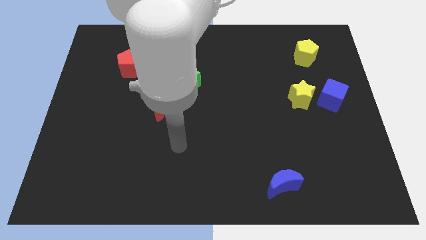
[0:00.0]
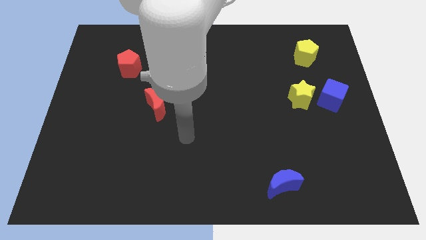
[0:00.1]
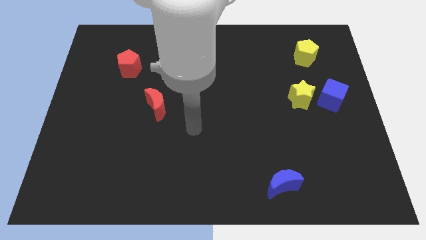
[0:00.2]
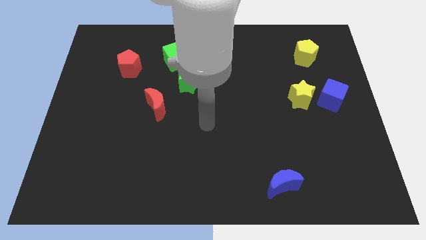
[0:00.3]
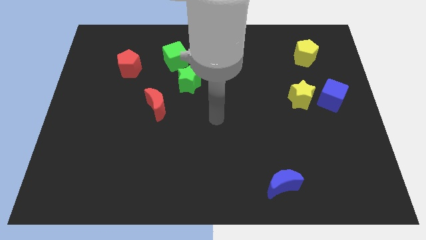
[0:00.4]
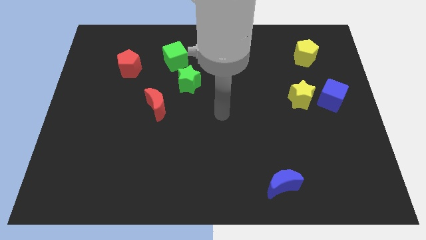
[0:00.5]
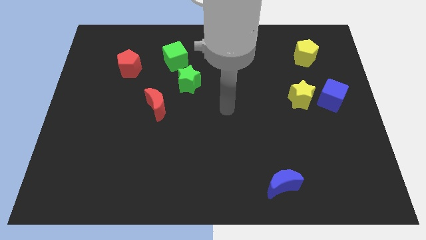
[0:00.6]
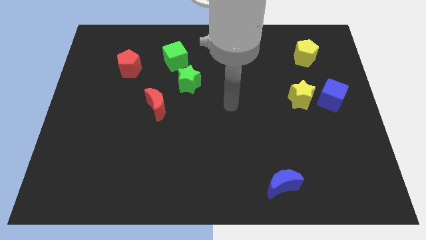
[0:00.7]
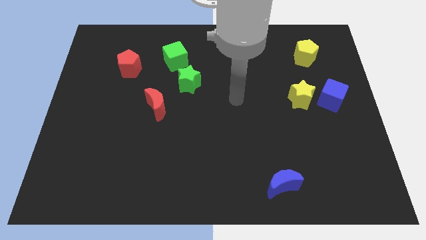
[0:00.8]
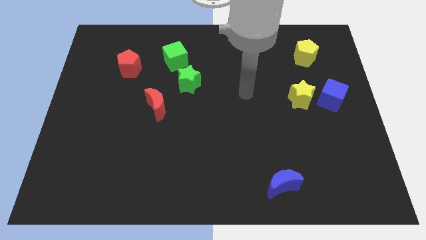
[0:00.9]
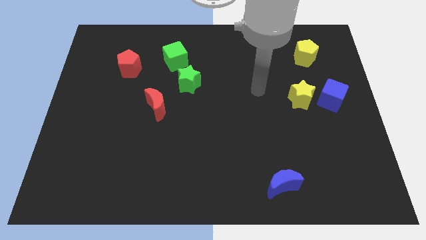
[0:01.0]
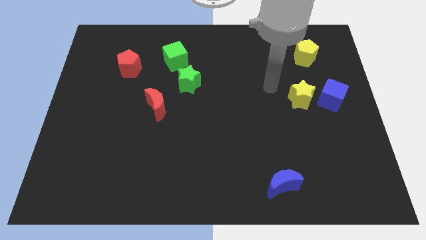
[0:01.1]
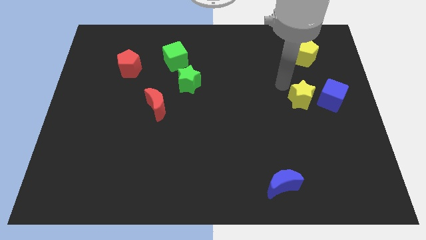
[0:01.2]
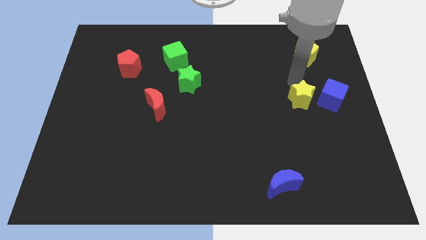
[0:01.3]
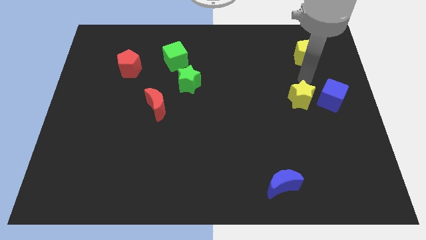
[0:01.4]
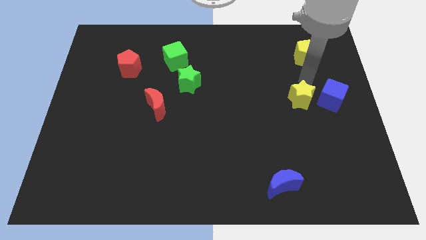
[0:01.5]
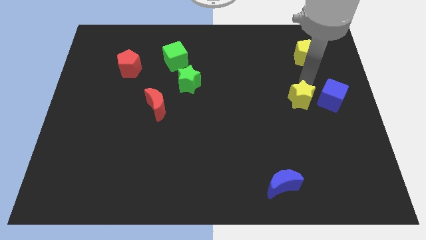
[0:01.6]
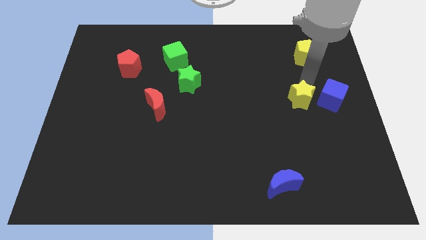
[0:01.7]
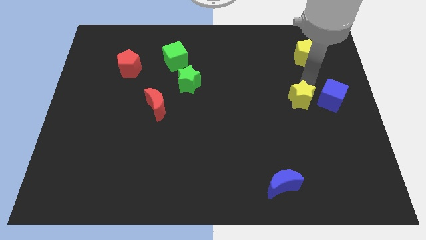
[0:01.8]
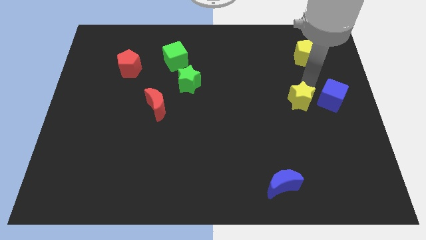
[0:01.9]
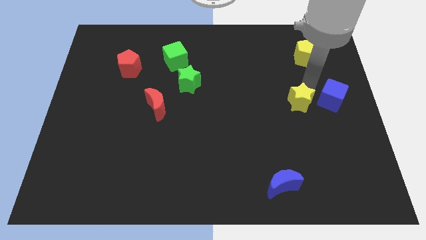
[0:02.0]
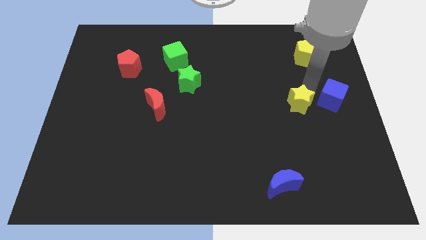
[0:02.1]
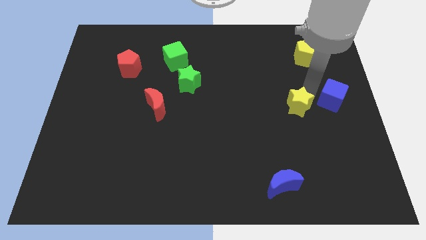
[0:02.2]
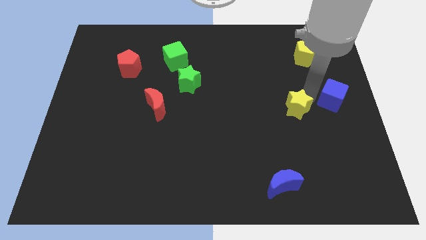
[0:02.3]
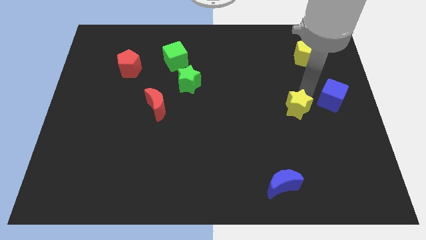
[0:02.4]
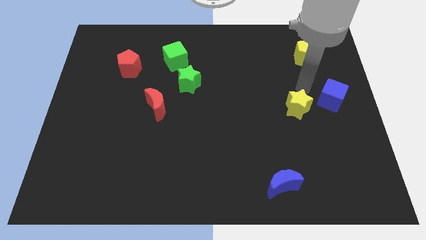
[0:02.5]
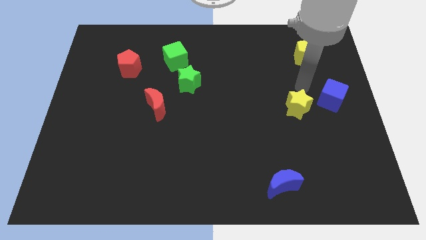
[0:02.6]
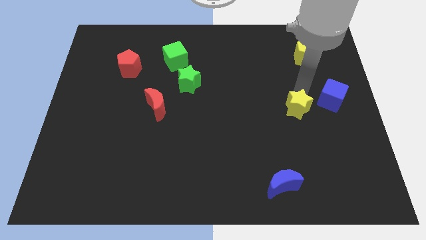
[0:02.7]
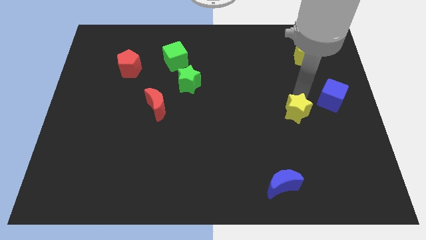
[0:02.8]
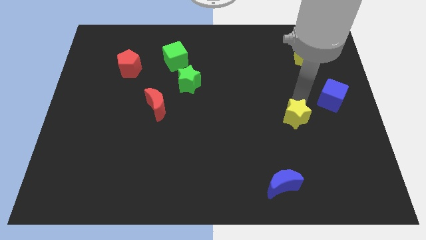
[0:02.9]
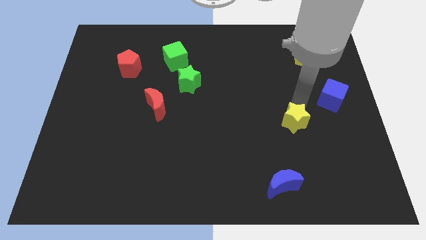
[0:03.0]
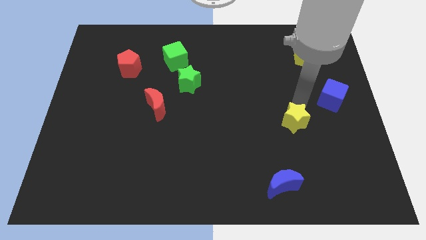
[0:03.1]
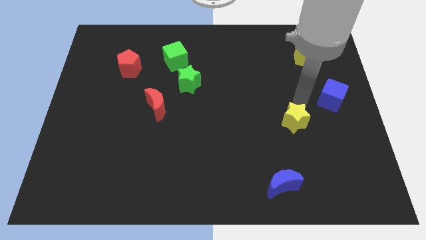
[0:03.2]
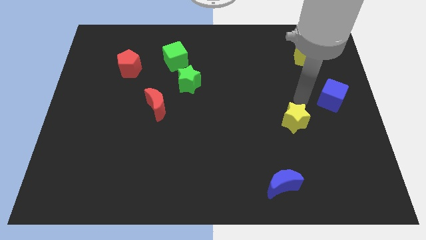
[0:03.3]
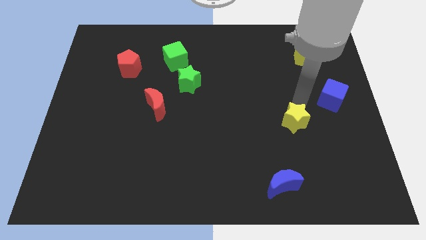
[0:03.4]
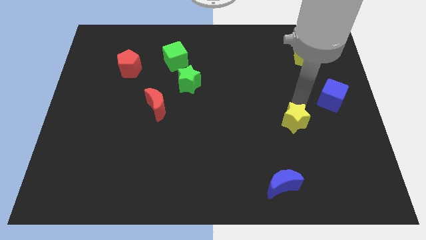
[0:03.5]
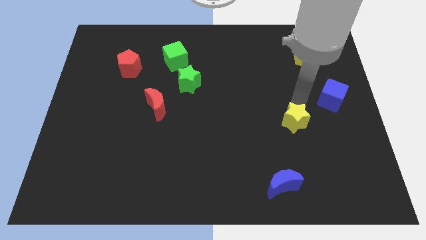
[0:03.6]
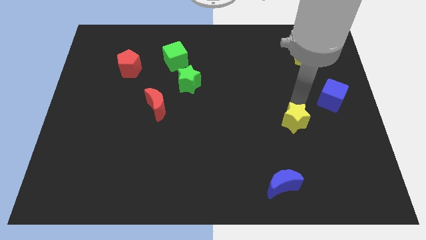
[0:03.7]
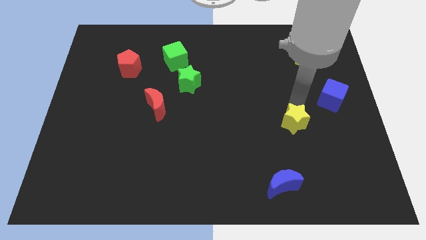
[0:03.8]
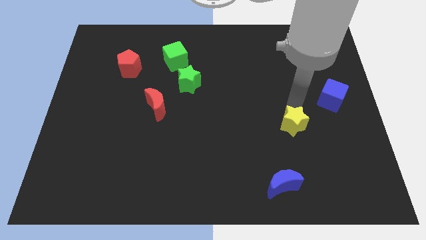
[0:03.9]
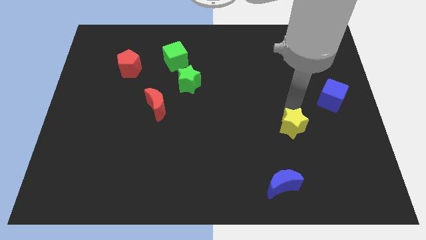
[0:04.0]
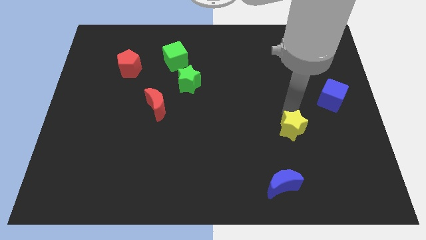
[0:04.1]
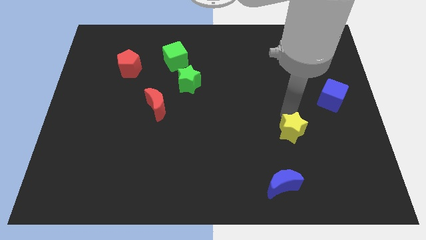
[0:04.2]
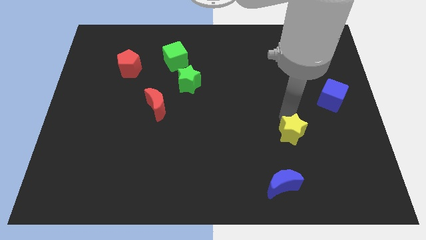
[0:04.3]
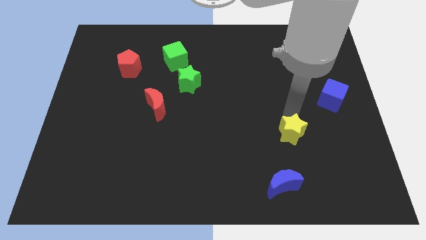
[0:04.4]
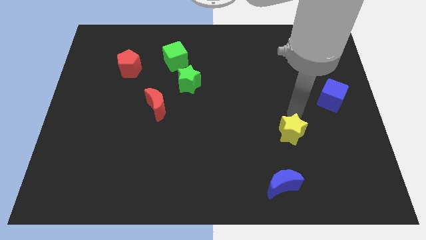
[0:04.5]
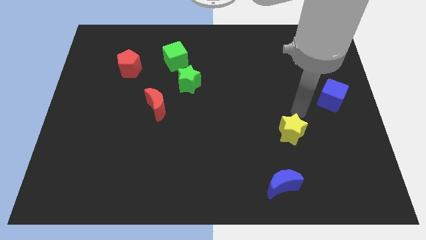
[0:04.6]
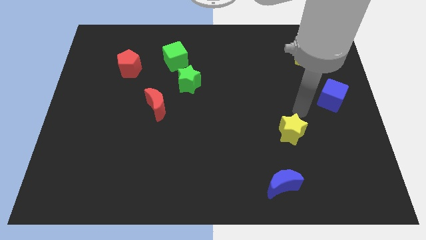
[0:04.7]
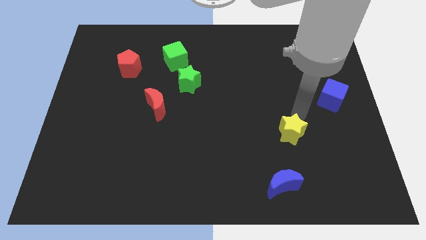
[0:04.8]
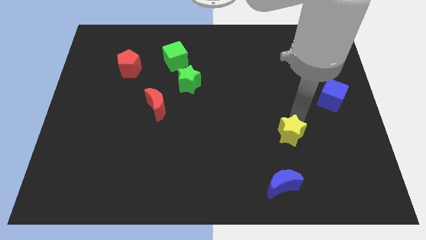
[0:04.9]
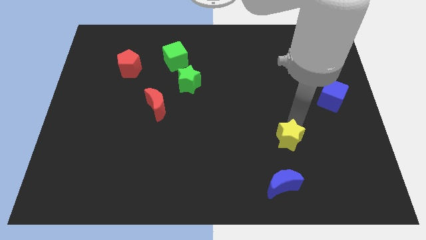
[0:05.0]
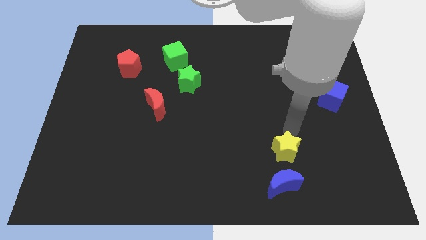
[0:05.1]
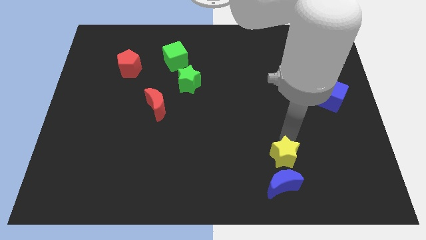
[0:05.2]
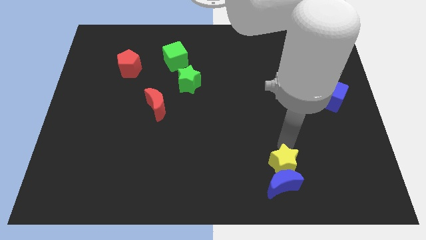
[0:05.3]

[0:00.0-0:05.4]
push the yellow star next to the blue moon

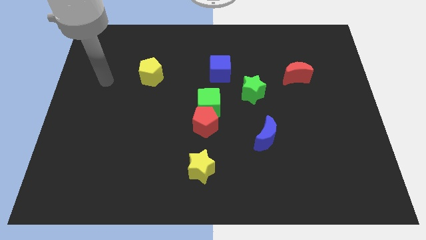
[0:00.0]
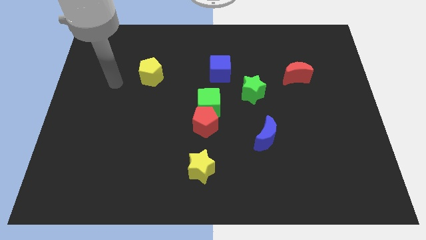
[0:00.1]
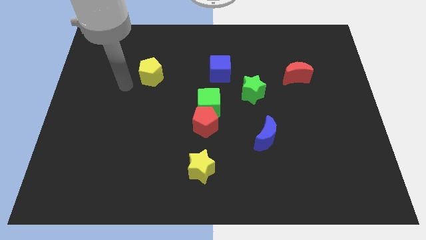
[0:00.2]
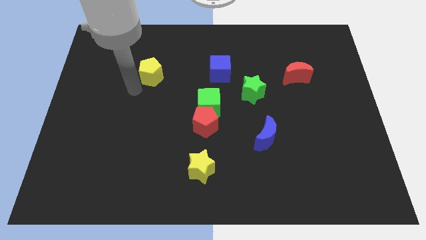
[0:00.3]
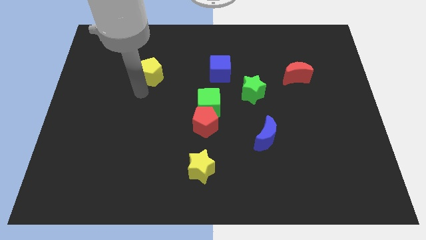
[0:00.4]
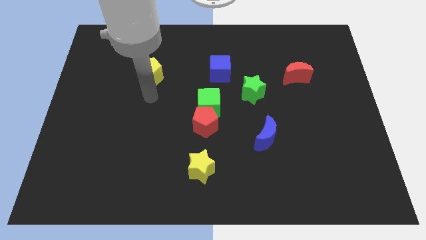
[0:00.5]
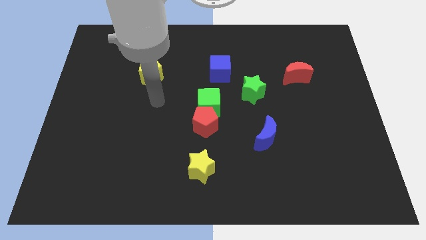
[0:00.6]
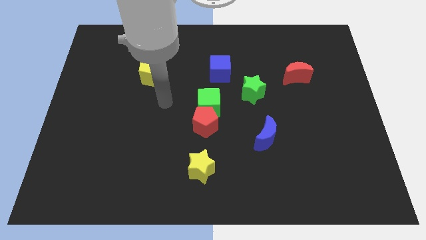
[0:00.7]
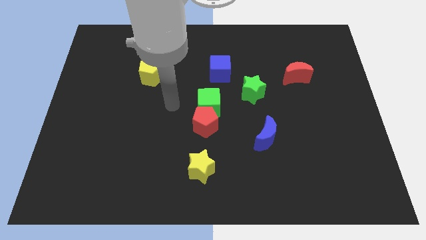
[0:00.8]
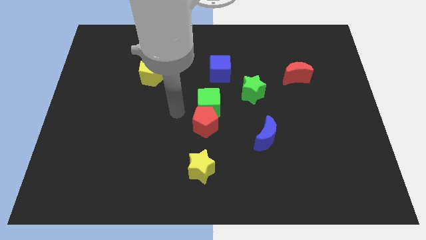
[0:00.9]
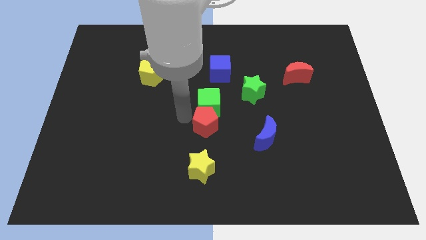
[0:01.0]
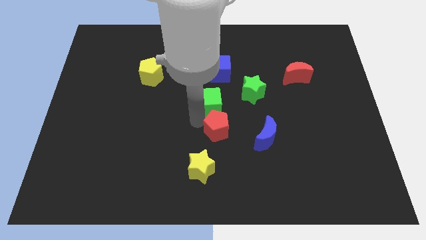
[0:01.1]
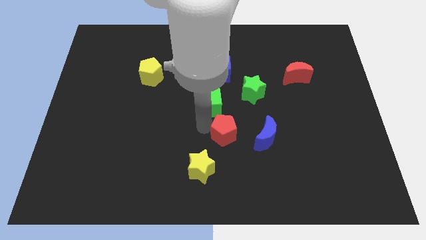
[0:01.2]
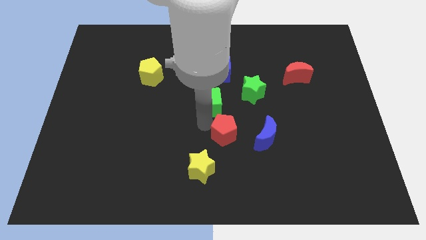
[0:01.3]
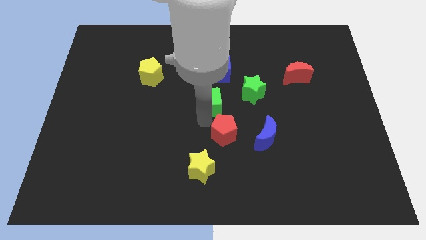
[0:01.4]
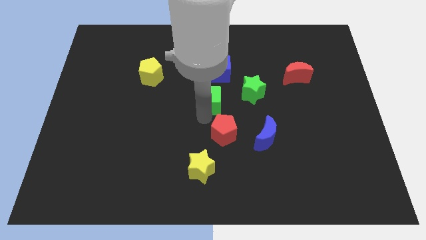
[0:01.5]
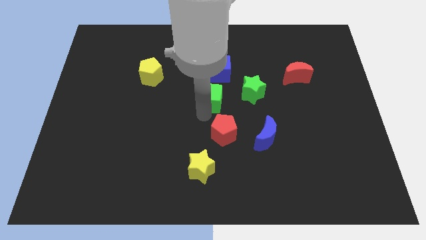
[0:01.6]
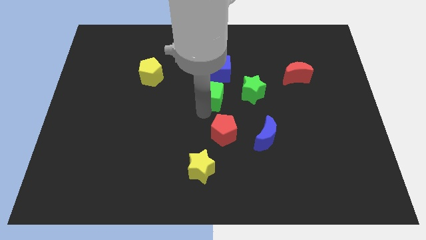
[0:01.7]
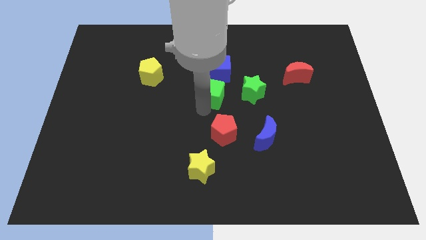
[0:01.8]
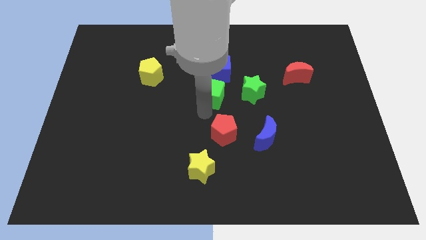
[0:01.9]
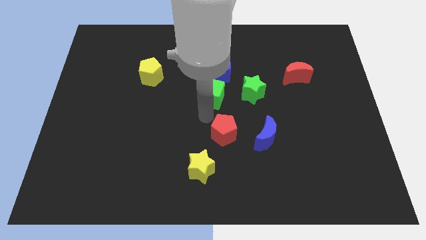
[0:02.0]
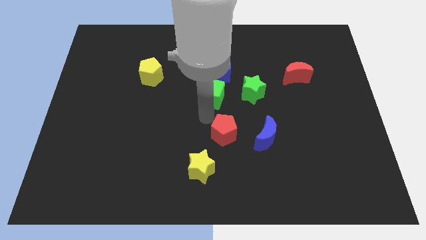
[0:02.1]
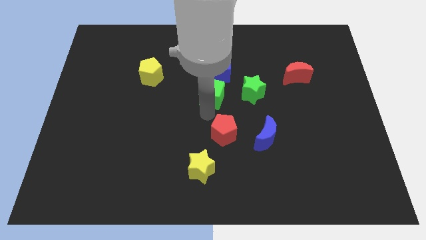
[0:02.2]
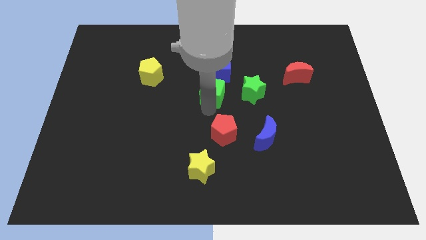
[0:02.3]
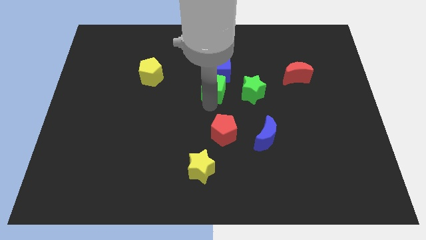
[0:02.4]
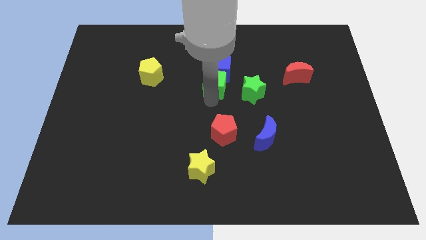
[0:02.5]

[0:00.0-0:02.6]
move the green cube to the blue cube
